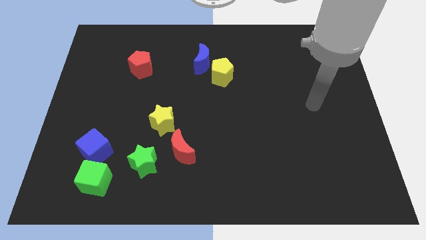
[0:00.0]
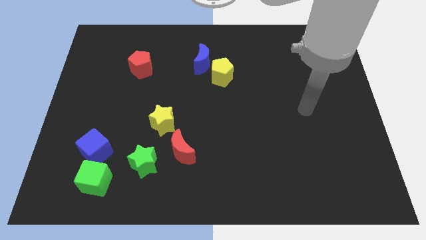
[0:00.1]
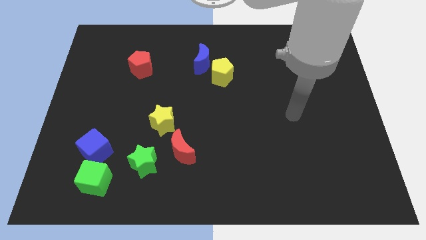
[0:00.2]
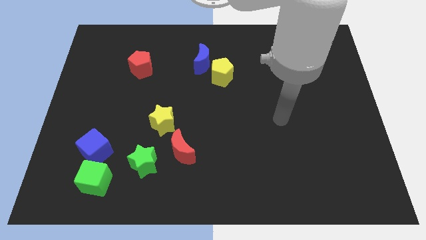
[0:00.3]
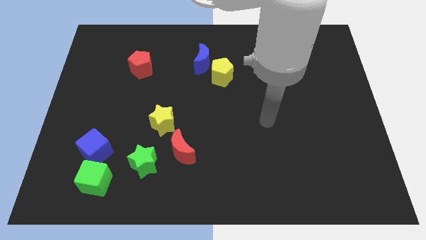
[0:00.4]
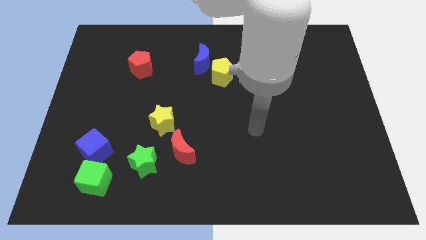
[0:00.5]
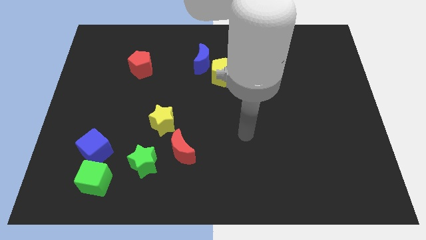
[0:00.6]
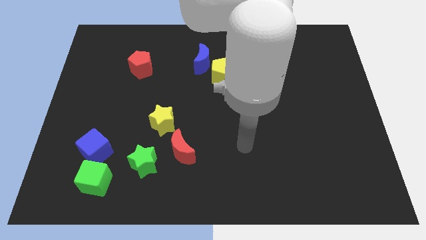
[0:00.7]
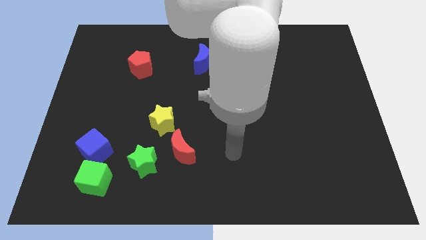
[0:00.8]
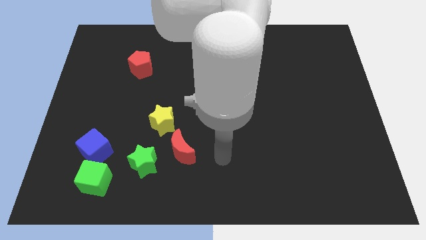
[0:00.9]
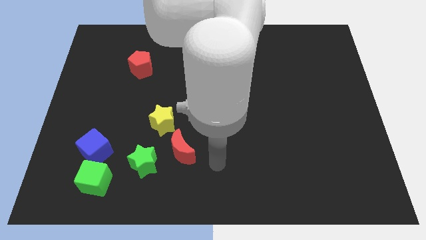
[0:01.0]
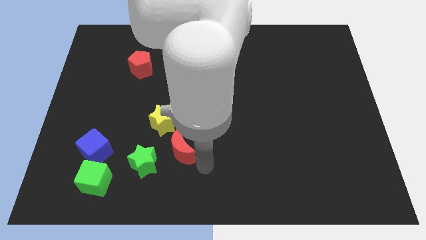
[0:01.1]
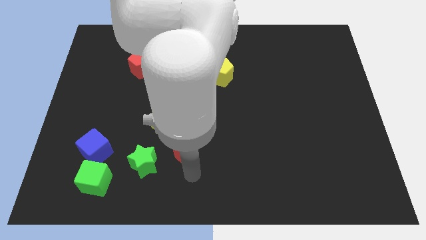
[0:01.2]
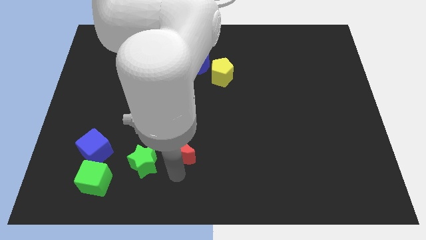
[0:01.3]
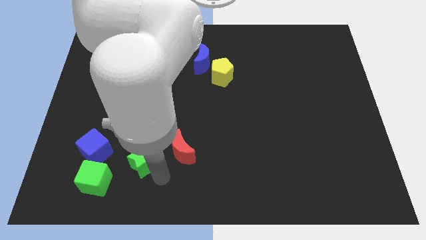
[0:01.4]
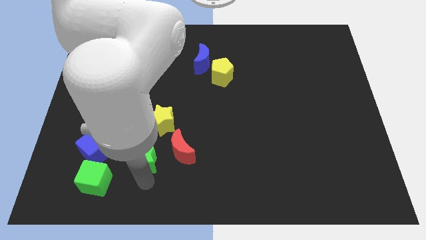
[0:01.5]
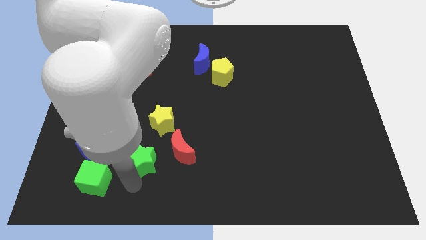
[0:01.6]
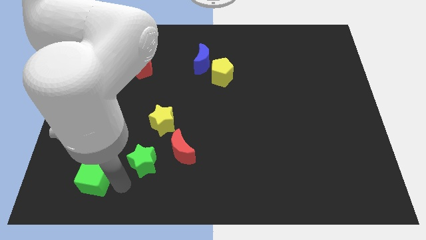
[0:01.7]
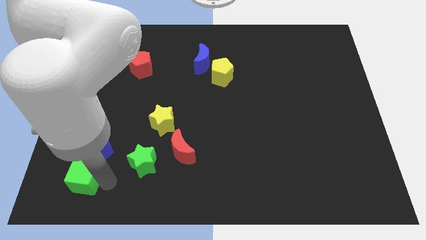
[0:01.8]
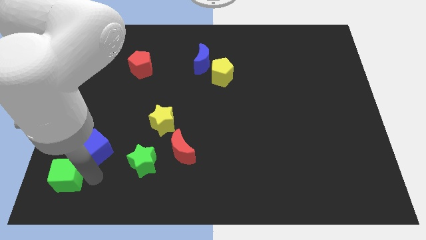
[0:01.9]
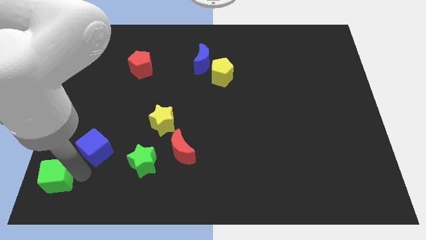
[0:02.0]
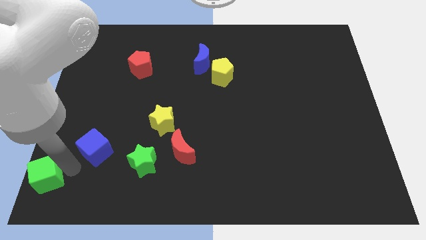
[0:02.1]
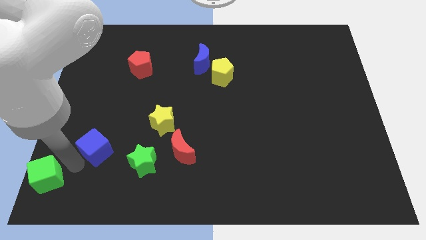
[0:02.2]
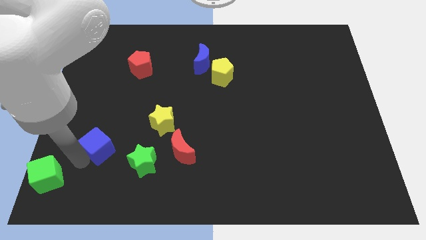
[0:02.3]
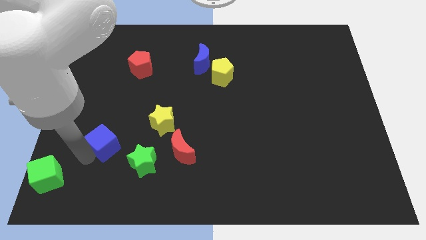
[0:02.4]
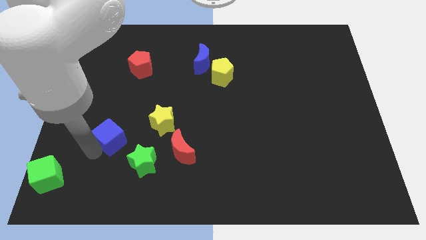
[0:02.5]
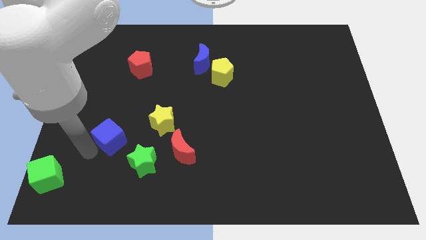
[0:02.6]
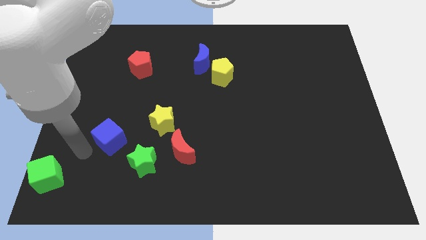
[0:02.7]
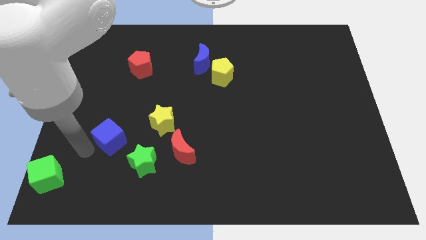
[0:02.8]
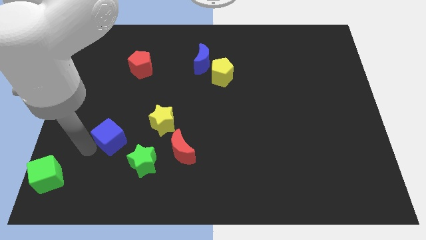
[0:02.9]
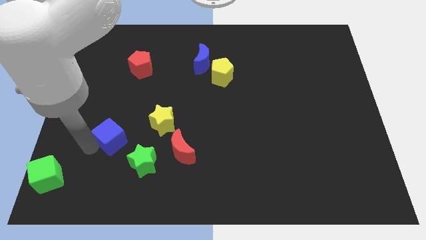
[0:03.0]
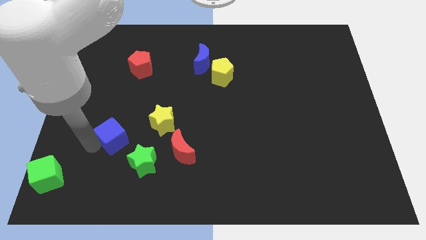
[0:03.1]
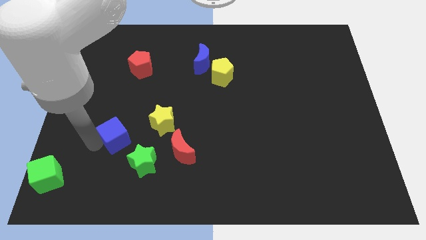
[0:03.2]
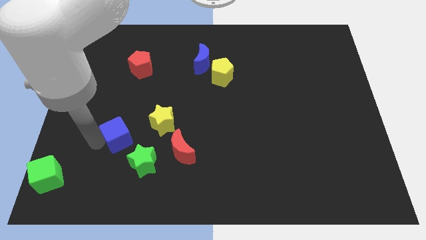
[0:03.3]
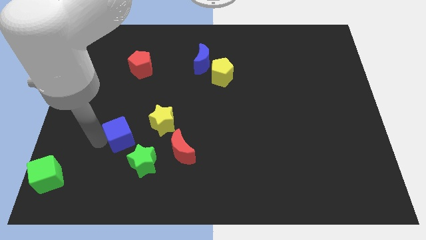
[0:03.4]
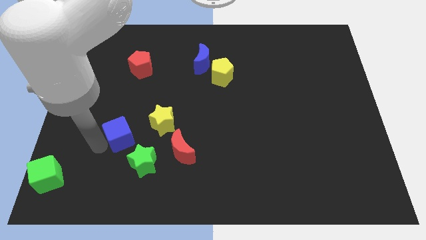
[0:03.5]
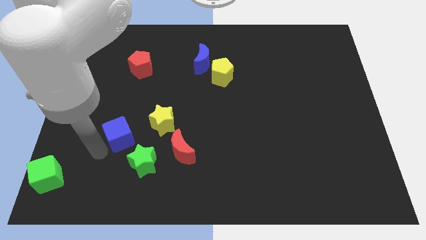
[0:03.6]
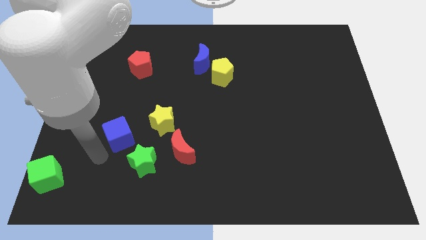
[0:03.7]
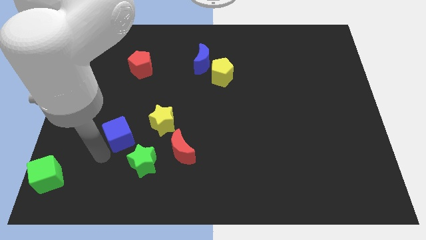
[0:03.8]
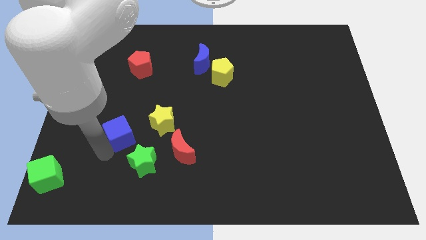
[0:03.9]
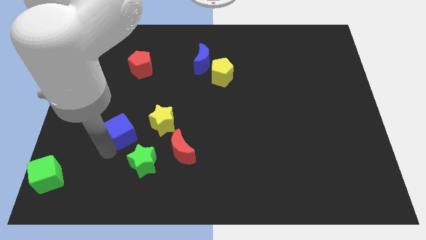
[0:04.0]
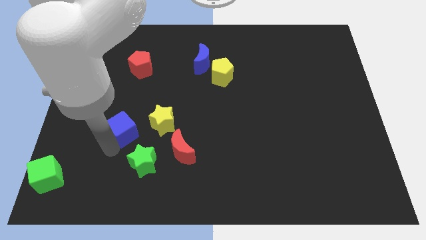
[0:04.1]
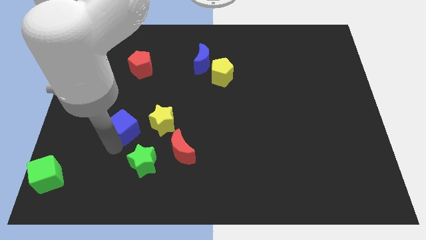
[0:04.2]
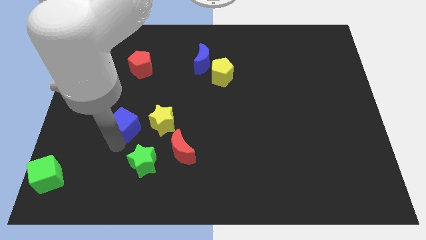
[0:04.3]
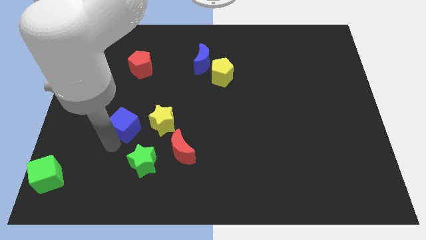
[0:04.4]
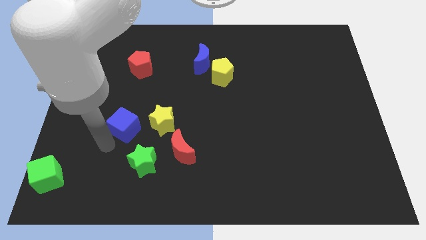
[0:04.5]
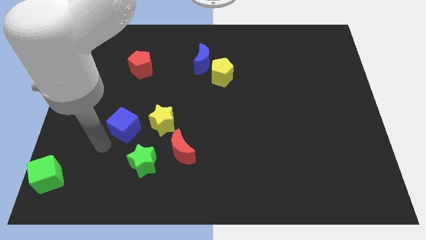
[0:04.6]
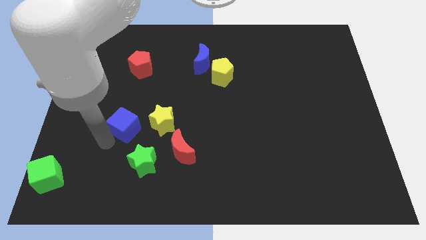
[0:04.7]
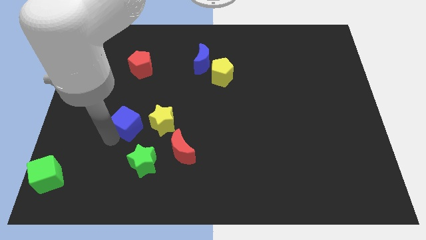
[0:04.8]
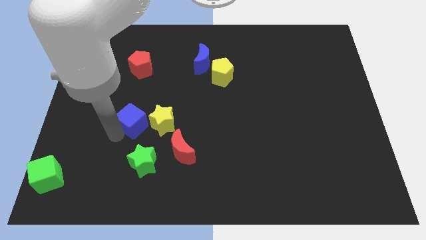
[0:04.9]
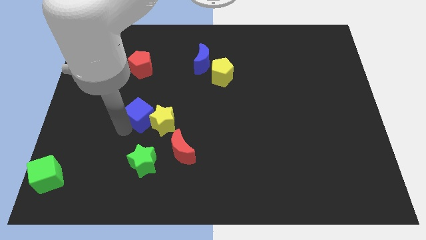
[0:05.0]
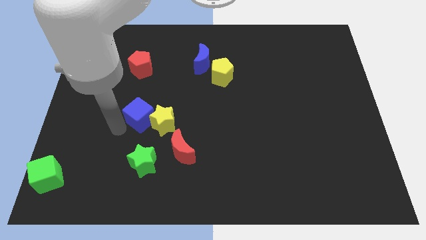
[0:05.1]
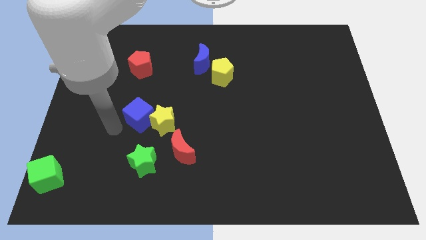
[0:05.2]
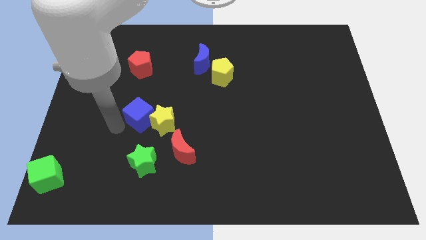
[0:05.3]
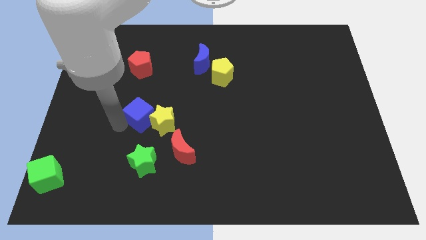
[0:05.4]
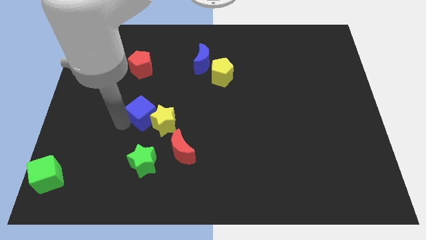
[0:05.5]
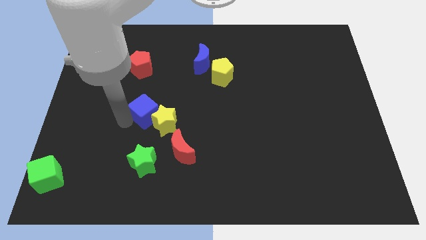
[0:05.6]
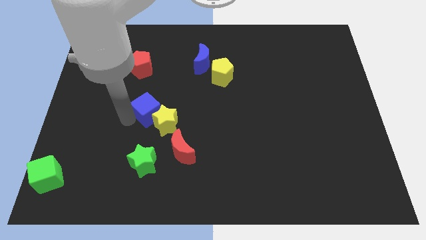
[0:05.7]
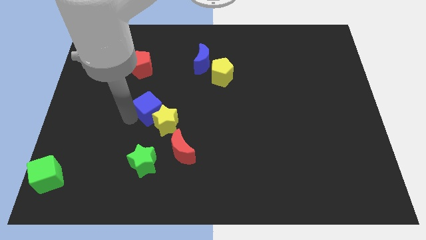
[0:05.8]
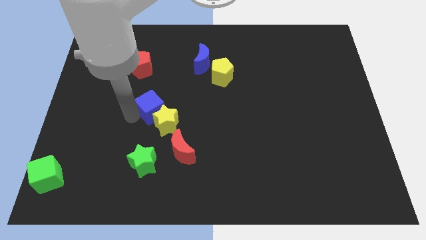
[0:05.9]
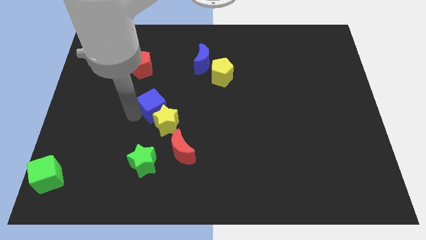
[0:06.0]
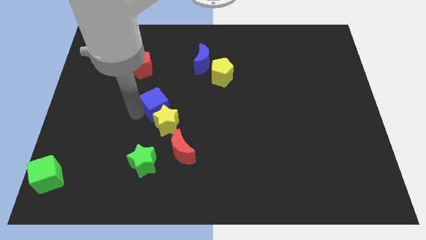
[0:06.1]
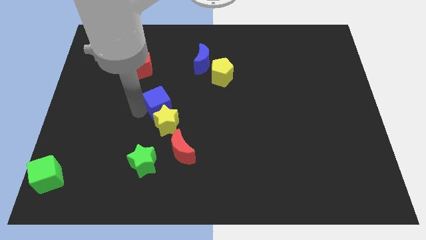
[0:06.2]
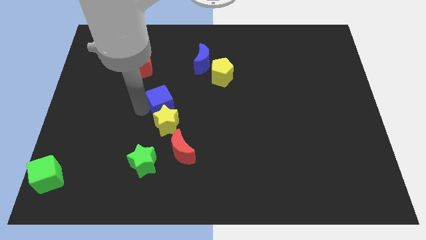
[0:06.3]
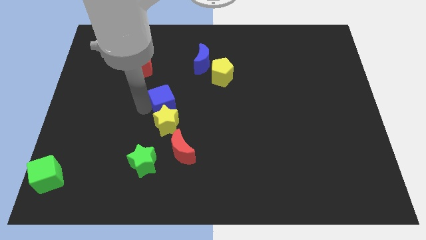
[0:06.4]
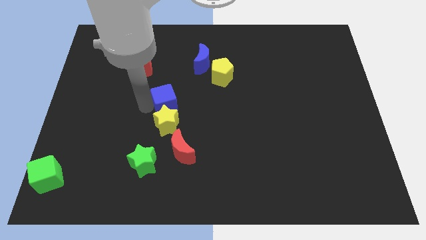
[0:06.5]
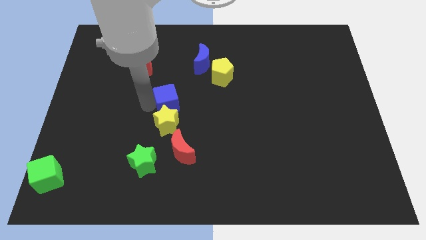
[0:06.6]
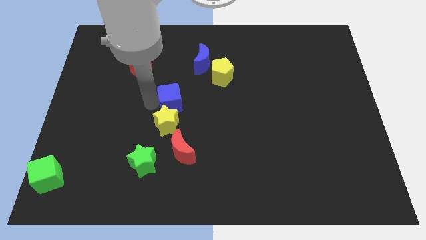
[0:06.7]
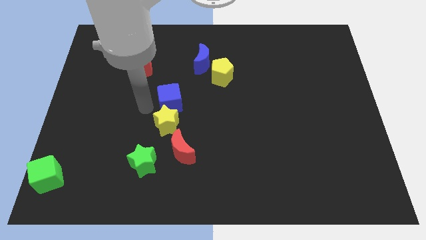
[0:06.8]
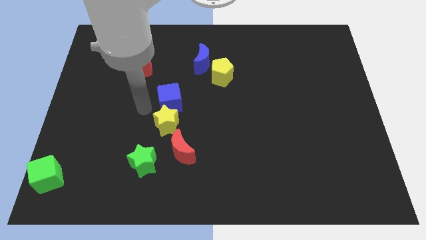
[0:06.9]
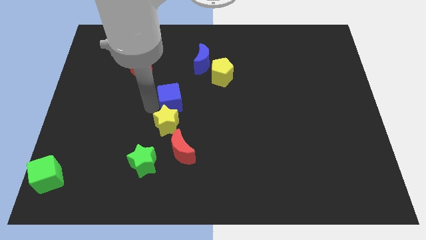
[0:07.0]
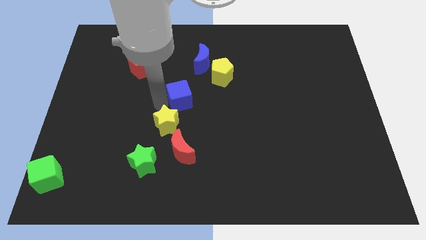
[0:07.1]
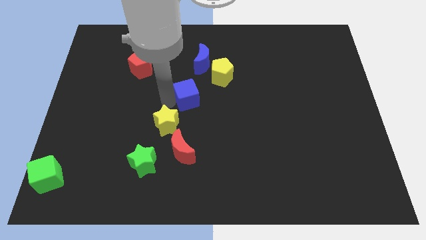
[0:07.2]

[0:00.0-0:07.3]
put the blue cube to the bottom of the blue moon
